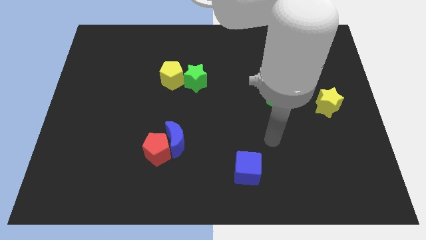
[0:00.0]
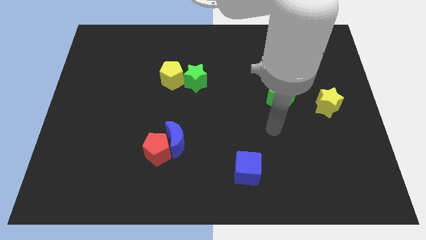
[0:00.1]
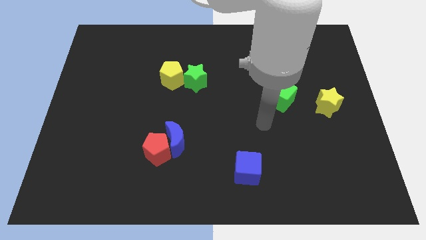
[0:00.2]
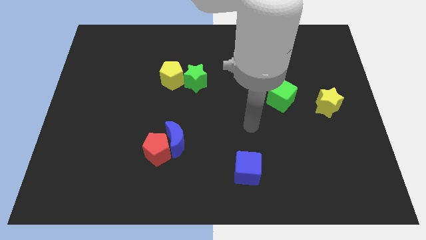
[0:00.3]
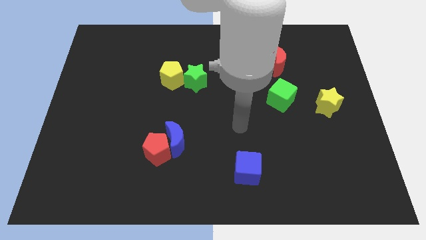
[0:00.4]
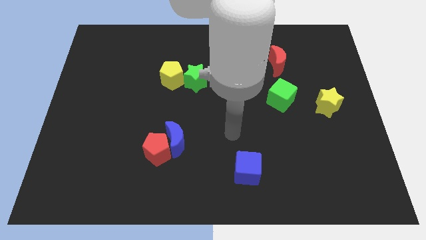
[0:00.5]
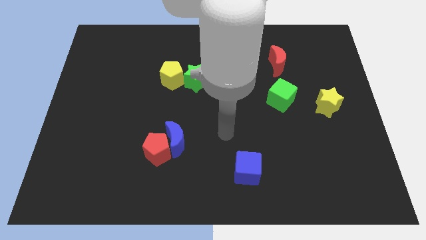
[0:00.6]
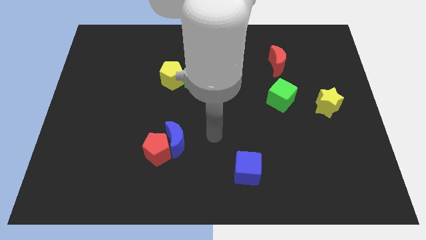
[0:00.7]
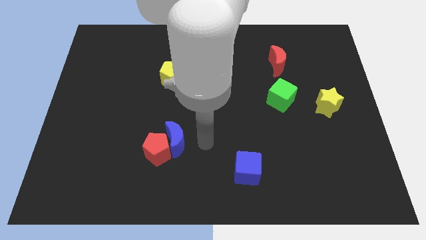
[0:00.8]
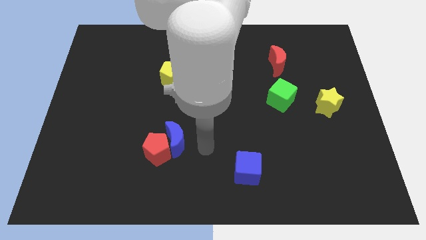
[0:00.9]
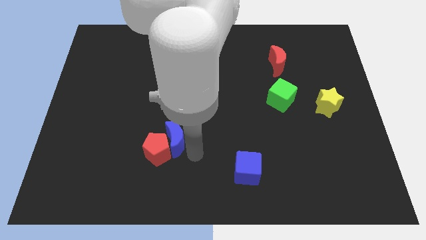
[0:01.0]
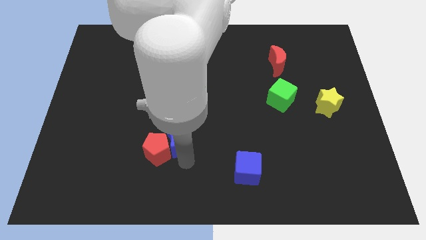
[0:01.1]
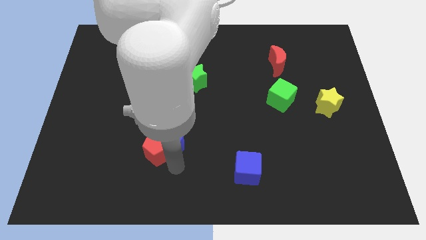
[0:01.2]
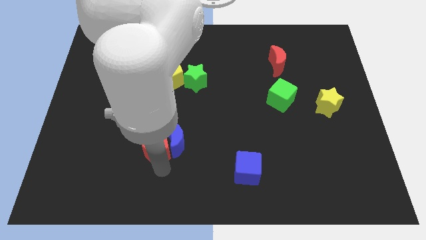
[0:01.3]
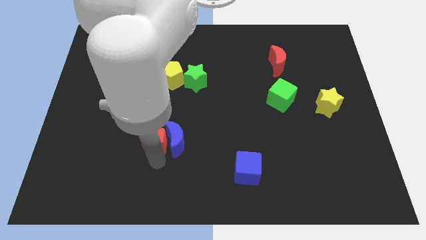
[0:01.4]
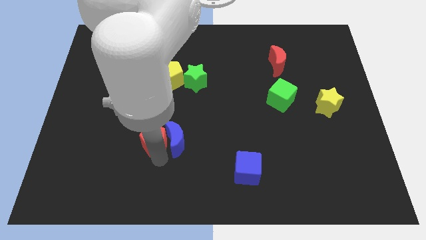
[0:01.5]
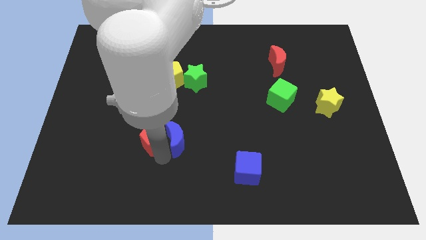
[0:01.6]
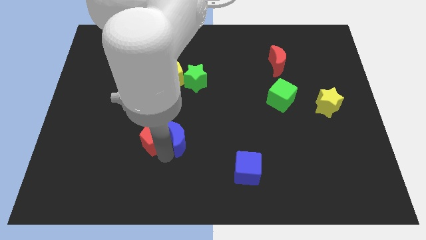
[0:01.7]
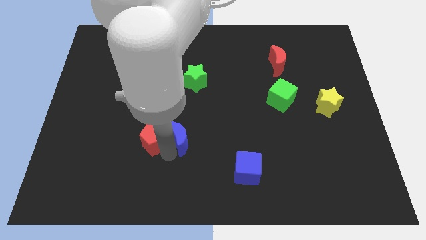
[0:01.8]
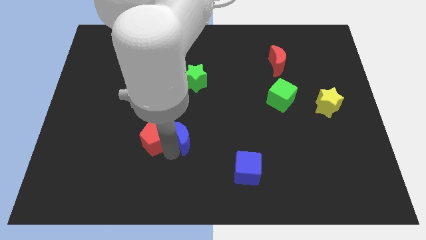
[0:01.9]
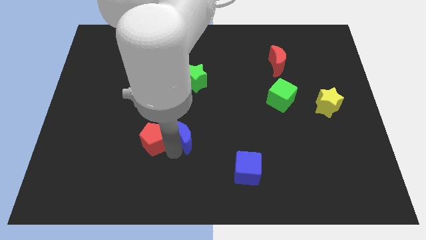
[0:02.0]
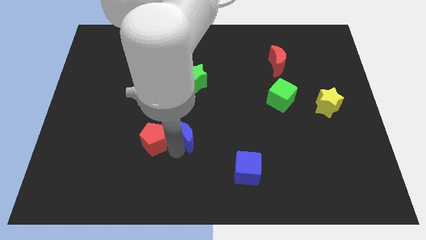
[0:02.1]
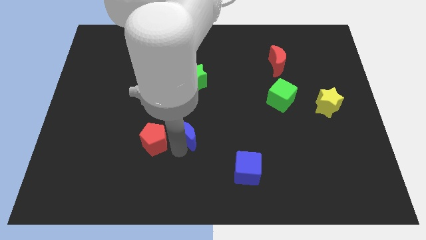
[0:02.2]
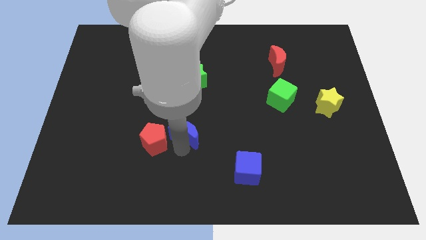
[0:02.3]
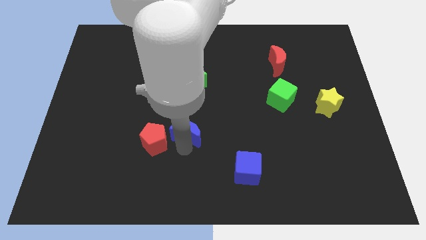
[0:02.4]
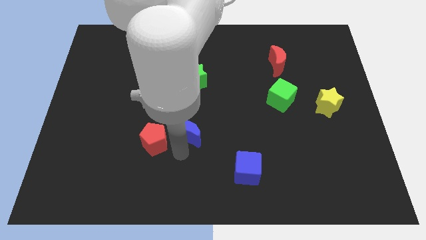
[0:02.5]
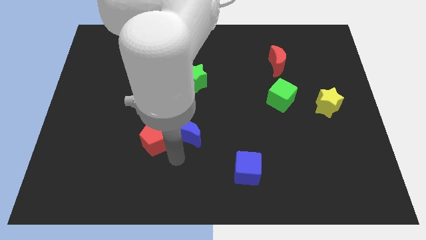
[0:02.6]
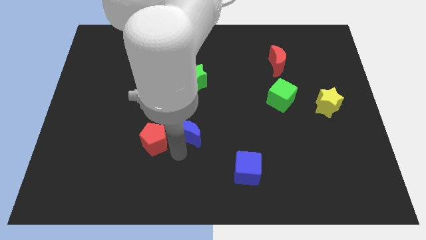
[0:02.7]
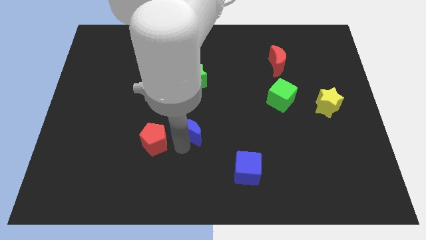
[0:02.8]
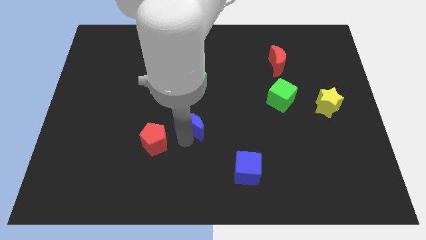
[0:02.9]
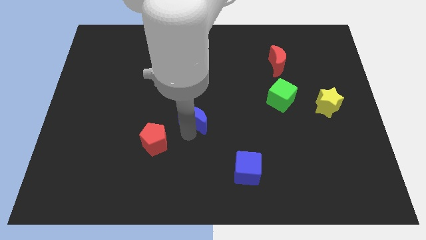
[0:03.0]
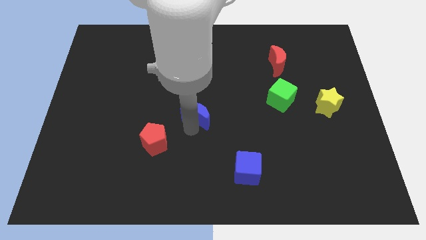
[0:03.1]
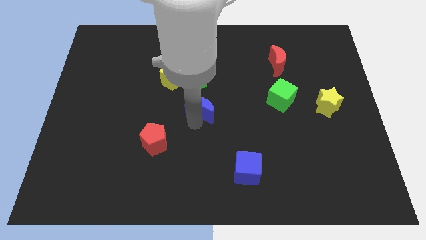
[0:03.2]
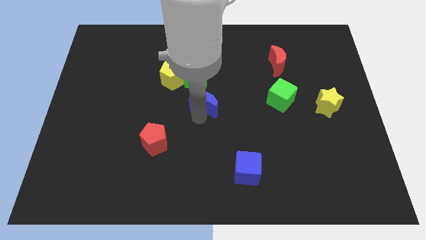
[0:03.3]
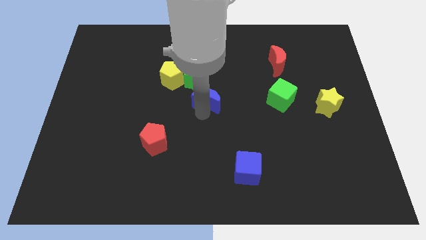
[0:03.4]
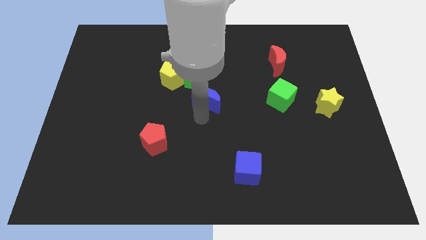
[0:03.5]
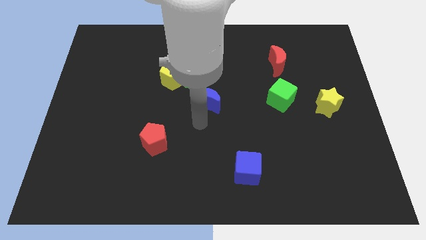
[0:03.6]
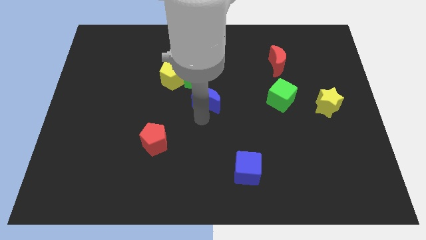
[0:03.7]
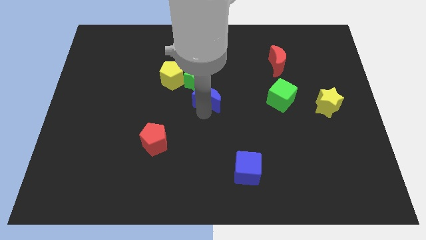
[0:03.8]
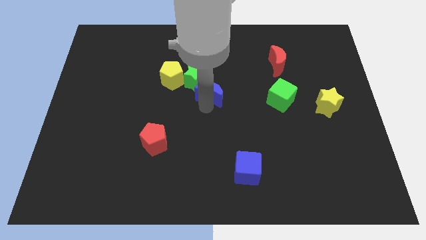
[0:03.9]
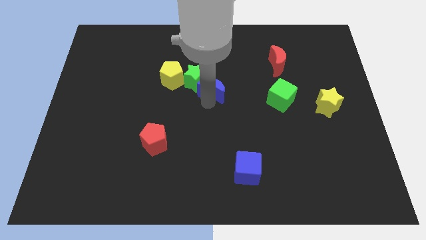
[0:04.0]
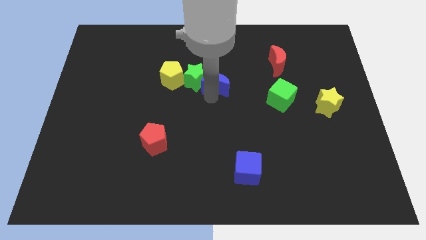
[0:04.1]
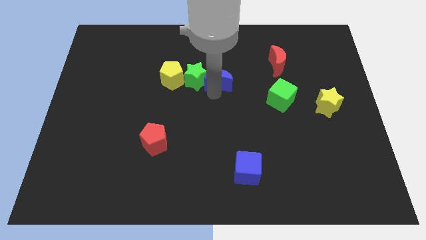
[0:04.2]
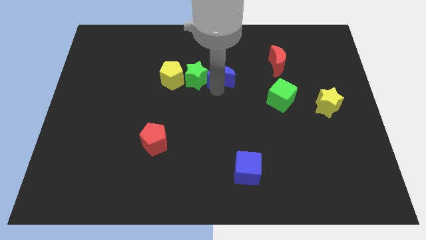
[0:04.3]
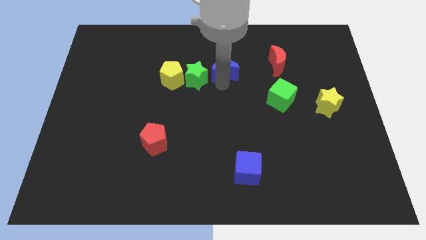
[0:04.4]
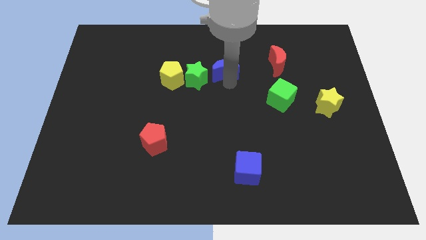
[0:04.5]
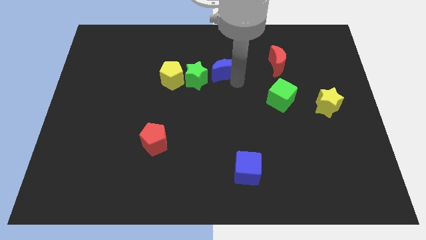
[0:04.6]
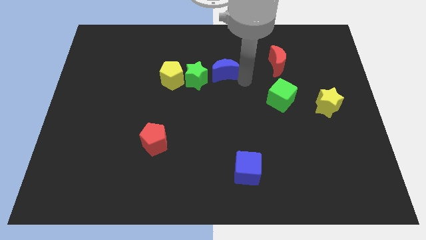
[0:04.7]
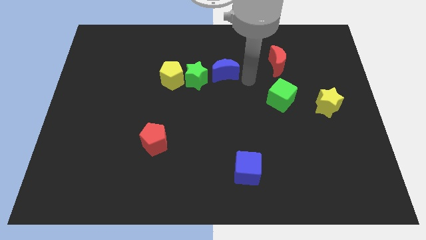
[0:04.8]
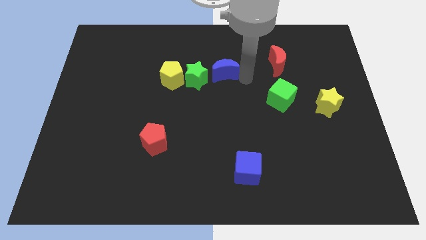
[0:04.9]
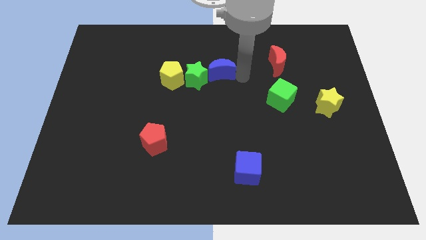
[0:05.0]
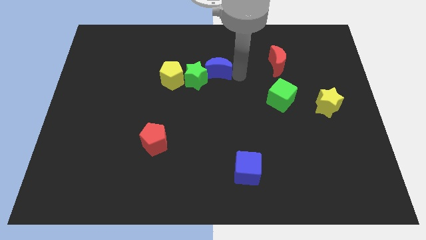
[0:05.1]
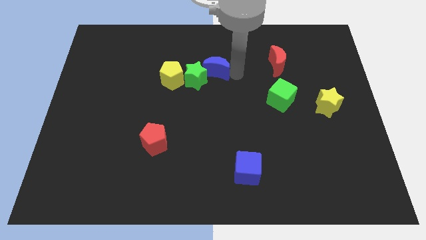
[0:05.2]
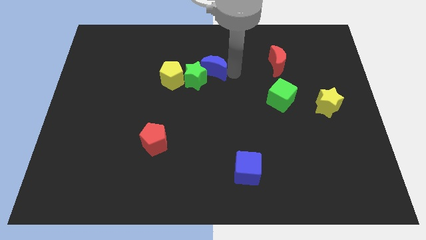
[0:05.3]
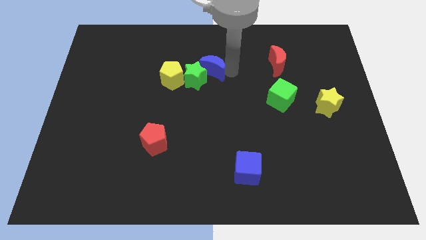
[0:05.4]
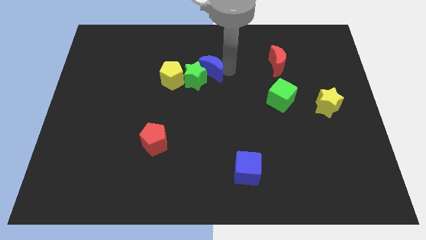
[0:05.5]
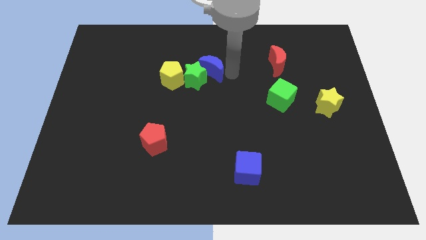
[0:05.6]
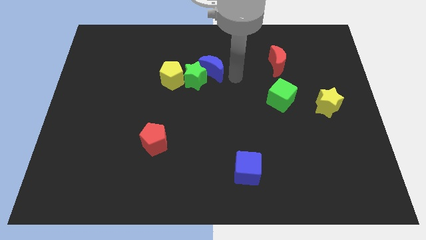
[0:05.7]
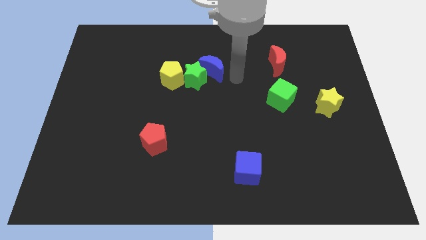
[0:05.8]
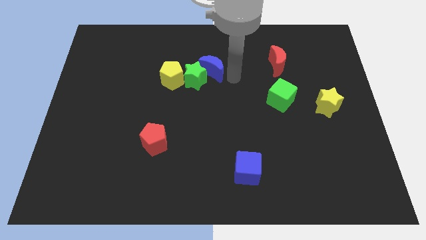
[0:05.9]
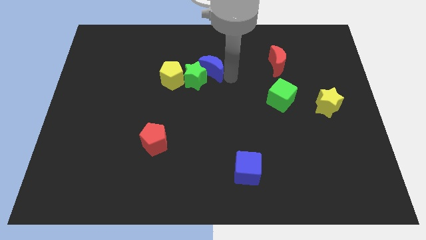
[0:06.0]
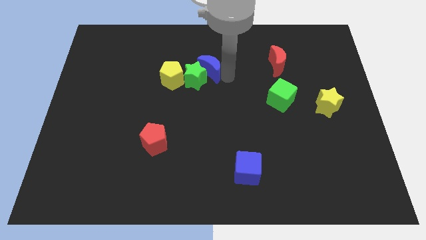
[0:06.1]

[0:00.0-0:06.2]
slide the blue moon diagonally up and to the right of the yellow pentagon

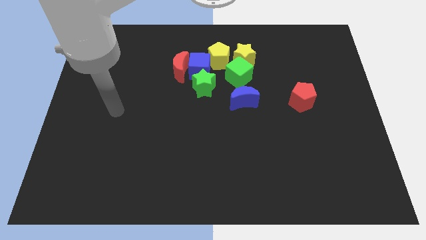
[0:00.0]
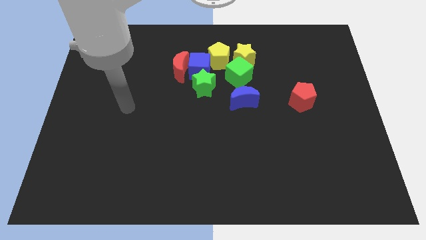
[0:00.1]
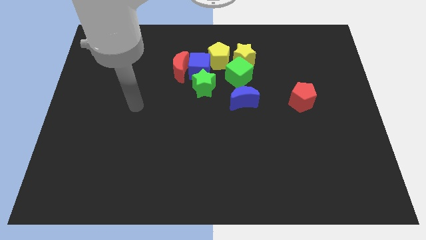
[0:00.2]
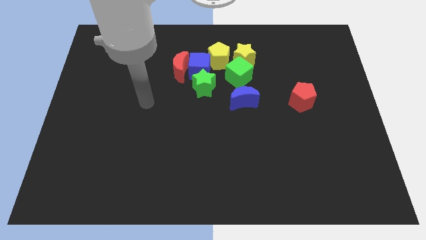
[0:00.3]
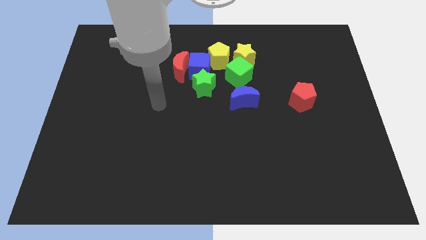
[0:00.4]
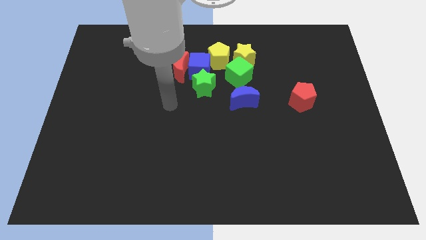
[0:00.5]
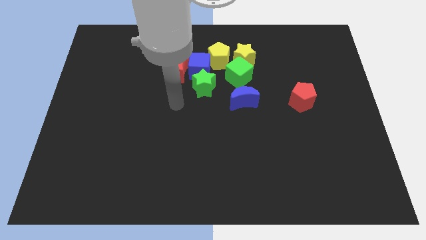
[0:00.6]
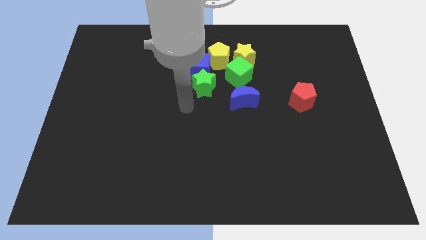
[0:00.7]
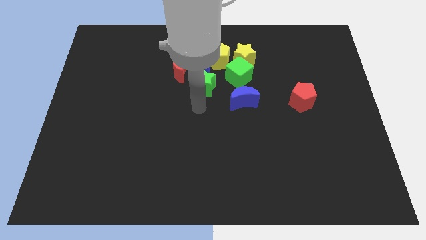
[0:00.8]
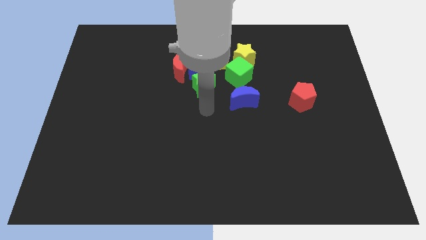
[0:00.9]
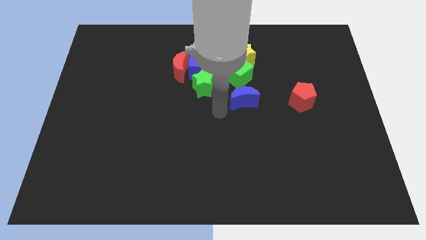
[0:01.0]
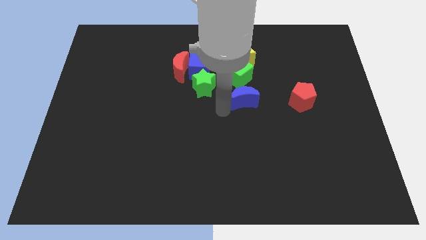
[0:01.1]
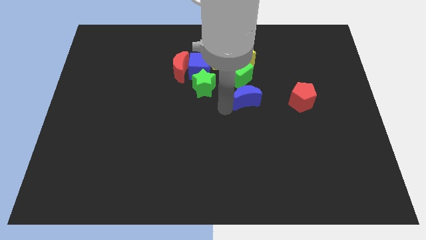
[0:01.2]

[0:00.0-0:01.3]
push the blue moon diagonally down and to the right of the green cube

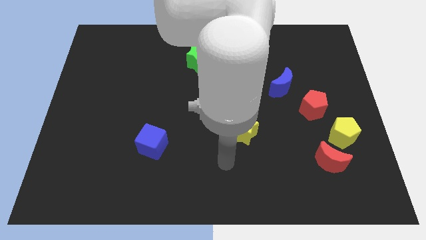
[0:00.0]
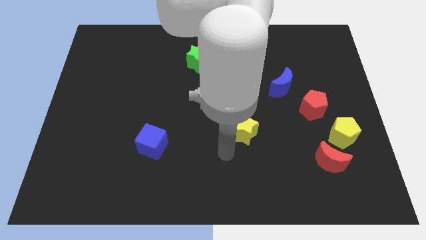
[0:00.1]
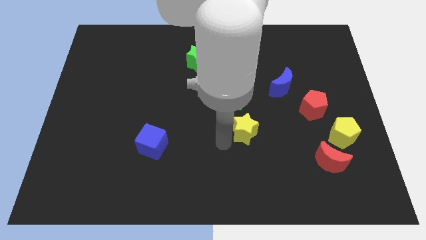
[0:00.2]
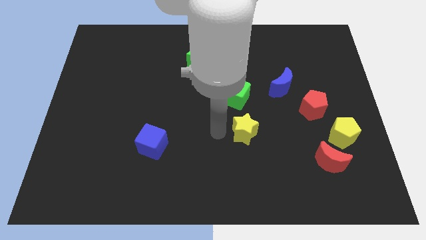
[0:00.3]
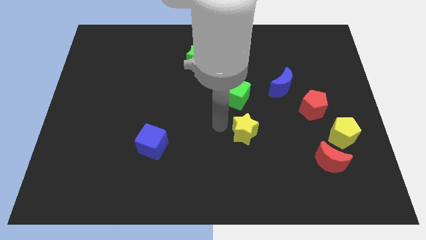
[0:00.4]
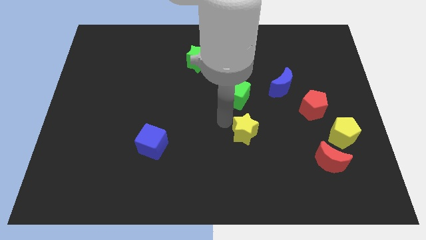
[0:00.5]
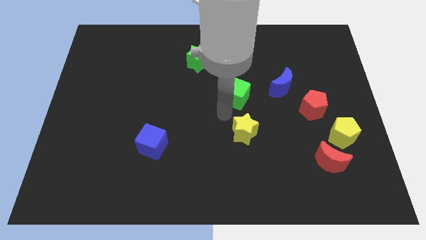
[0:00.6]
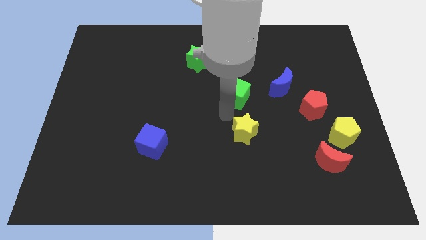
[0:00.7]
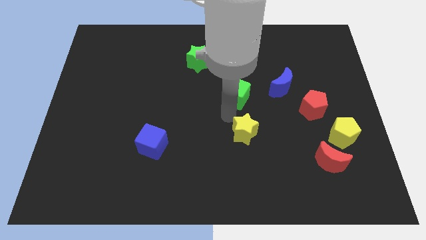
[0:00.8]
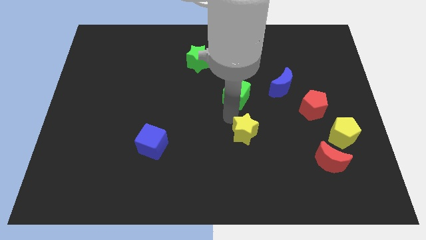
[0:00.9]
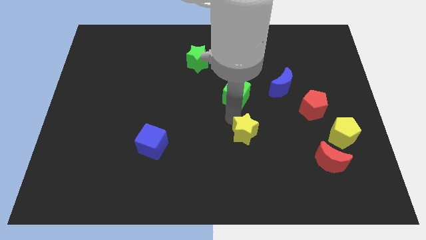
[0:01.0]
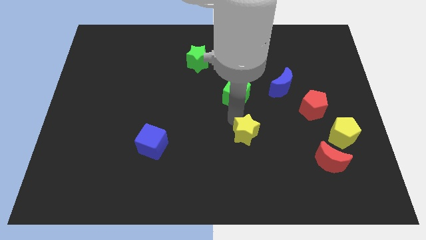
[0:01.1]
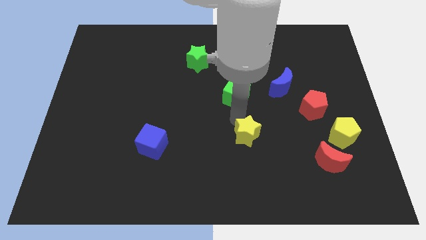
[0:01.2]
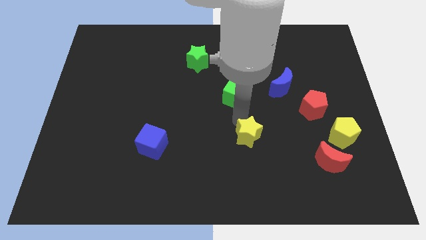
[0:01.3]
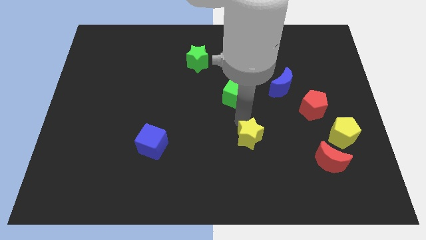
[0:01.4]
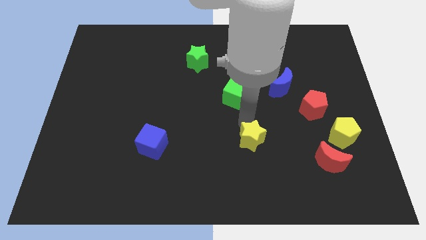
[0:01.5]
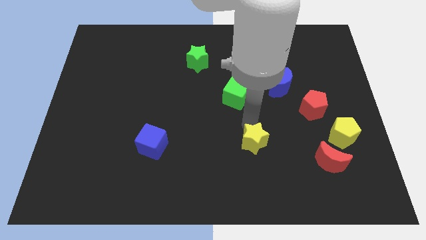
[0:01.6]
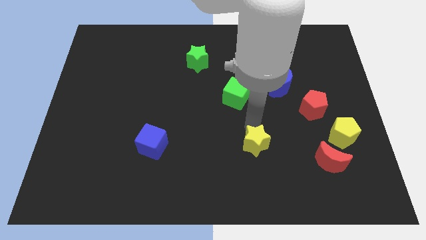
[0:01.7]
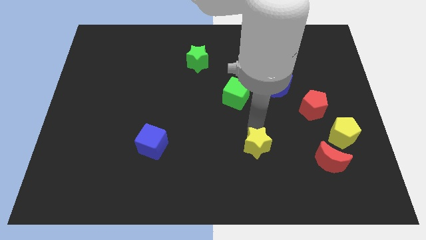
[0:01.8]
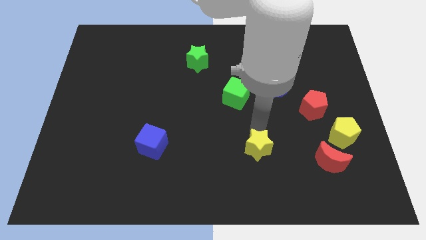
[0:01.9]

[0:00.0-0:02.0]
put the yellow star to the left of the red moon
